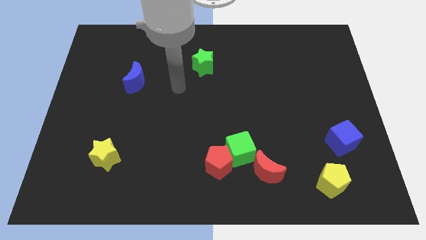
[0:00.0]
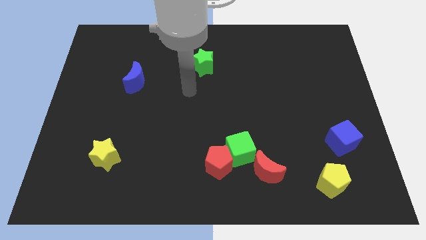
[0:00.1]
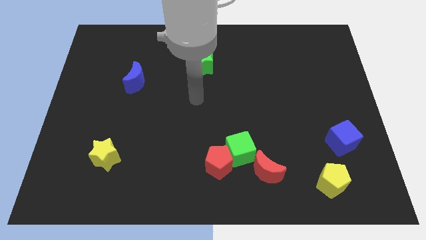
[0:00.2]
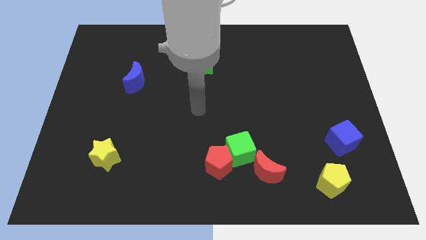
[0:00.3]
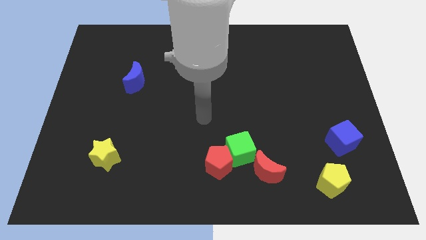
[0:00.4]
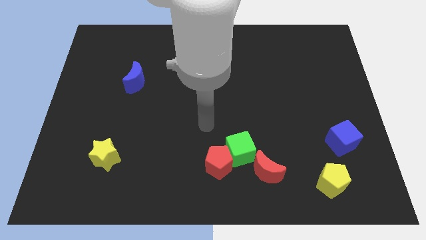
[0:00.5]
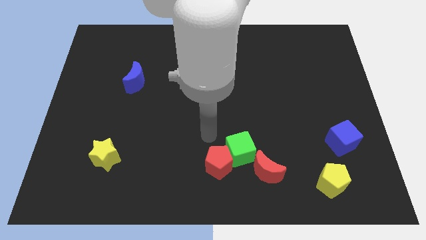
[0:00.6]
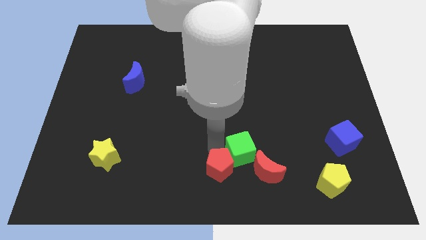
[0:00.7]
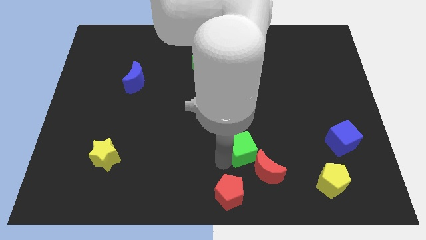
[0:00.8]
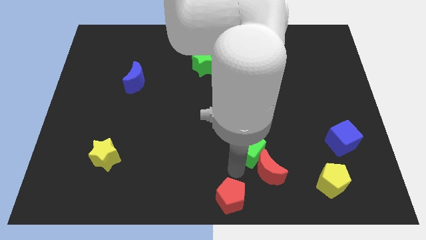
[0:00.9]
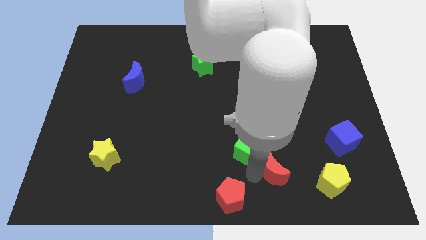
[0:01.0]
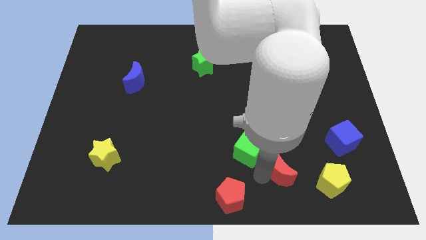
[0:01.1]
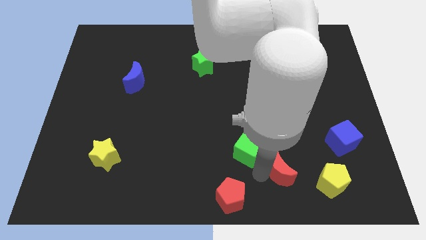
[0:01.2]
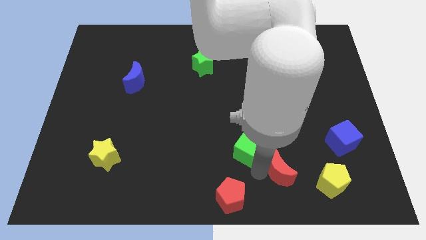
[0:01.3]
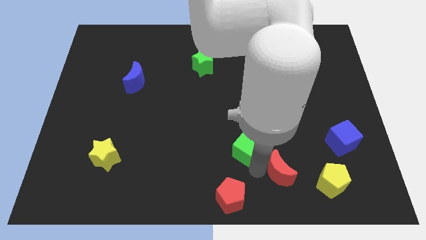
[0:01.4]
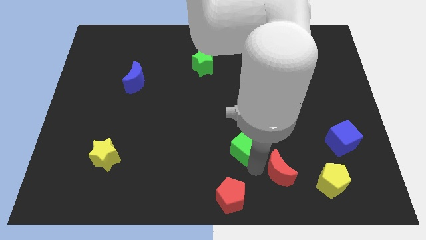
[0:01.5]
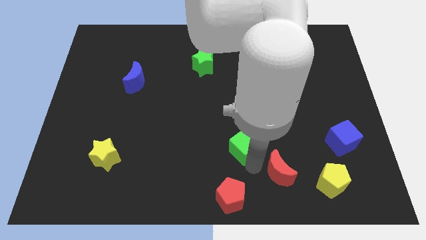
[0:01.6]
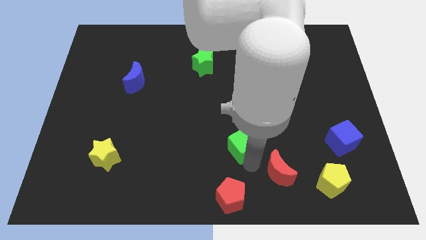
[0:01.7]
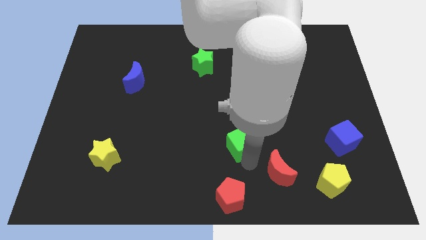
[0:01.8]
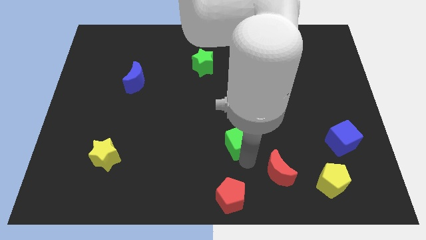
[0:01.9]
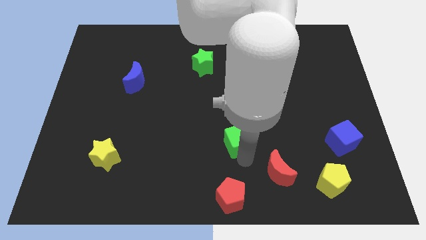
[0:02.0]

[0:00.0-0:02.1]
pull the green cube apart from the red pentagon and red moon

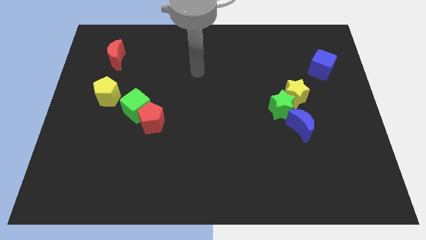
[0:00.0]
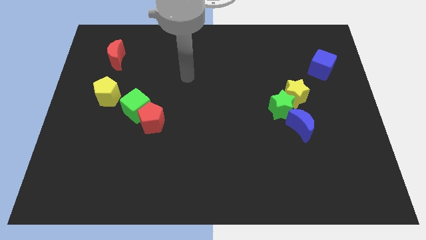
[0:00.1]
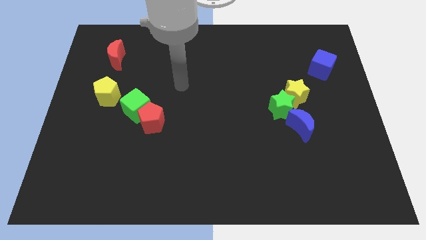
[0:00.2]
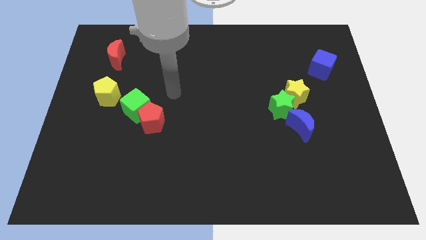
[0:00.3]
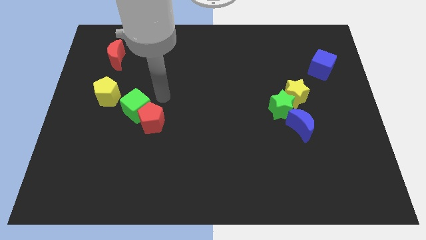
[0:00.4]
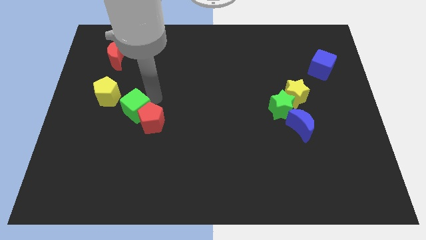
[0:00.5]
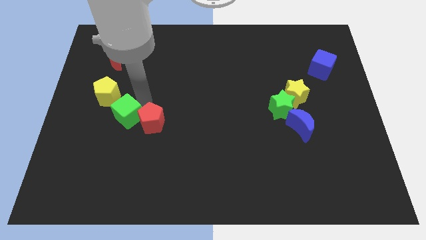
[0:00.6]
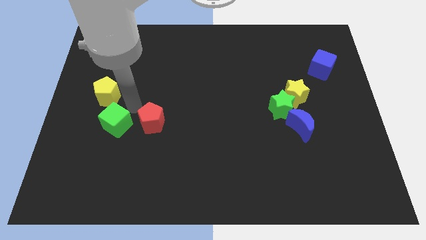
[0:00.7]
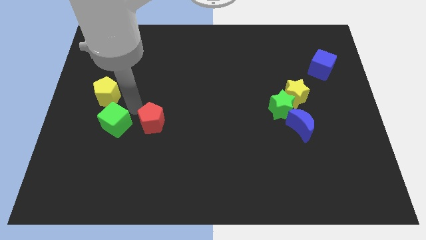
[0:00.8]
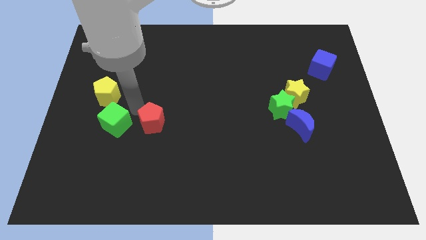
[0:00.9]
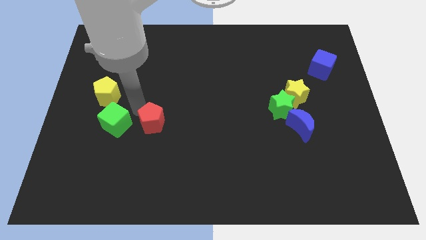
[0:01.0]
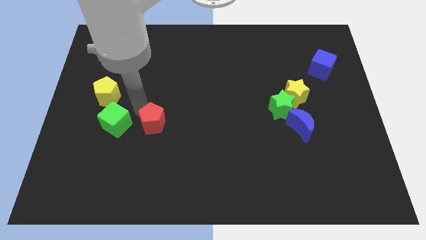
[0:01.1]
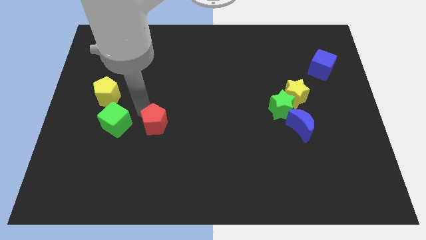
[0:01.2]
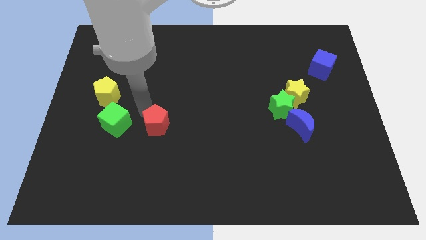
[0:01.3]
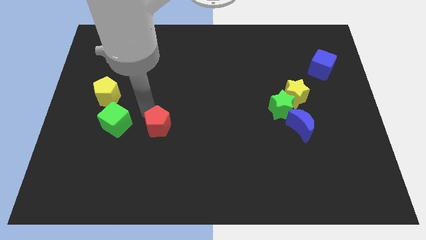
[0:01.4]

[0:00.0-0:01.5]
separate the red pentagon from the green cube

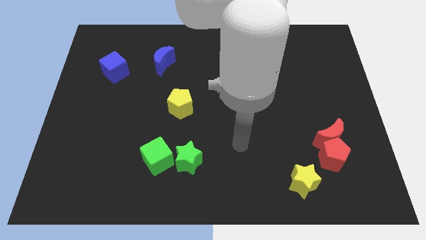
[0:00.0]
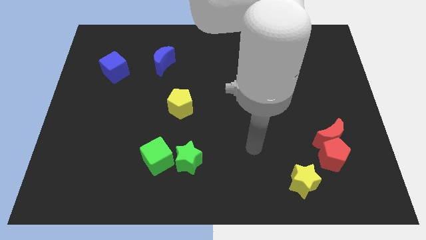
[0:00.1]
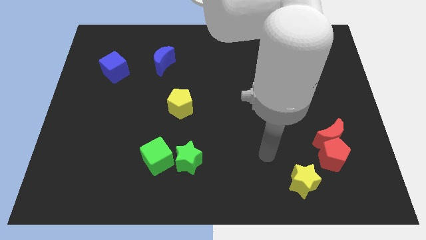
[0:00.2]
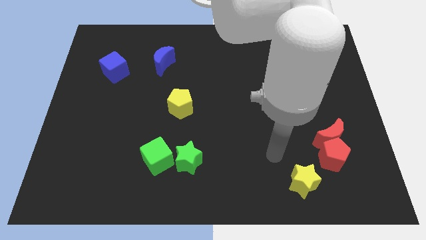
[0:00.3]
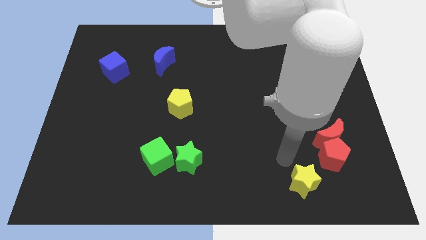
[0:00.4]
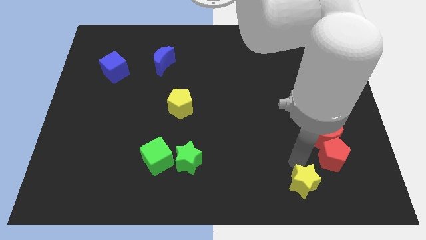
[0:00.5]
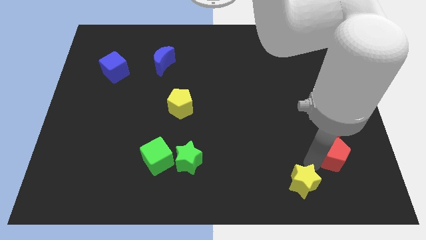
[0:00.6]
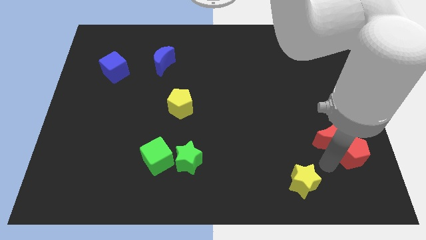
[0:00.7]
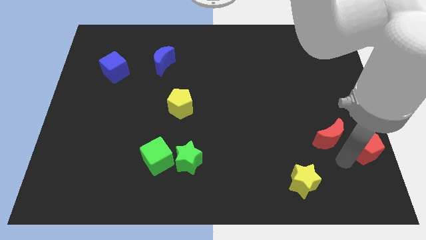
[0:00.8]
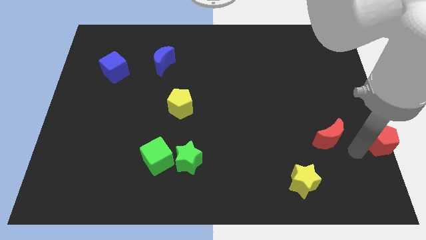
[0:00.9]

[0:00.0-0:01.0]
pull the red moon apart from the red pentagon

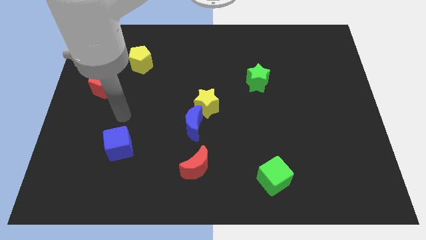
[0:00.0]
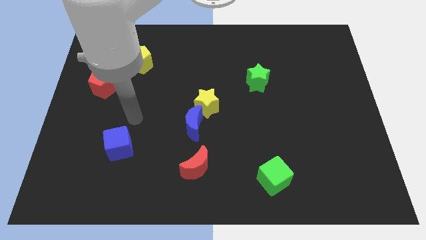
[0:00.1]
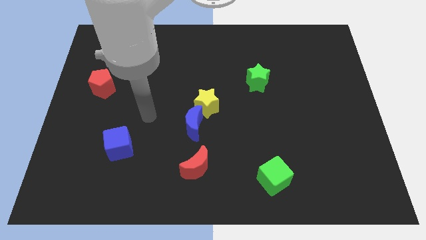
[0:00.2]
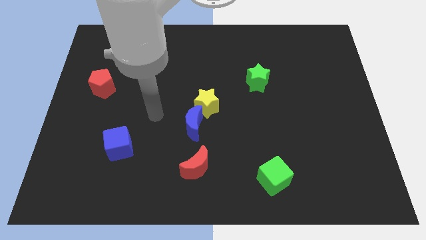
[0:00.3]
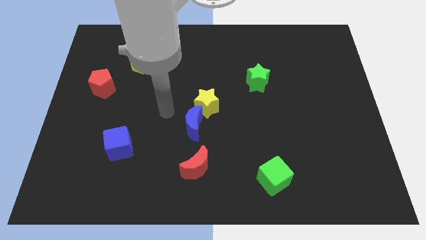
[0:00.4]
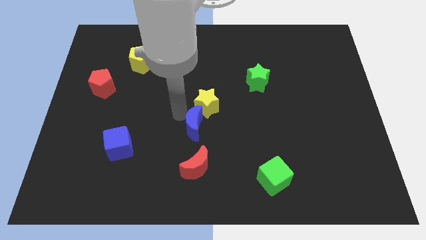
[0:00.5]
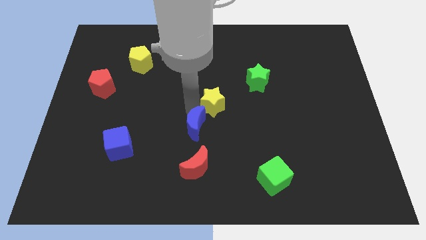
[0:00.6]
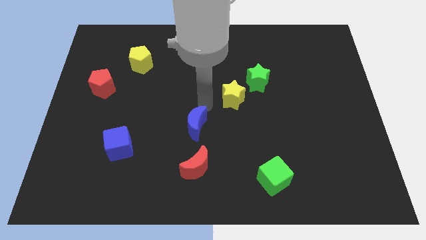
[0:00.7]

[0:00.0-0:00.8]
move the blue moon away from the yellow star

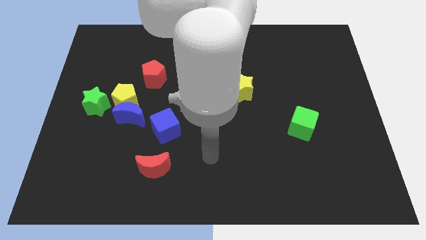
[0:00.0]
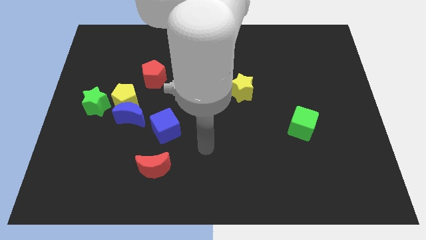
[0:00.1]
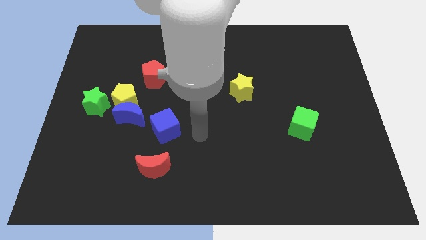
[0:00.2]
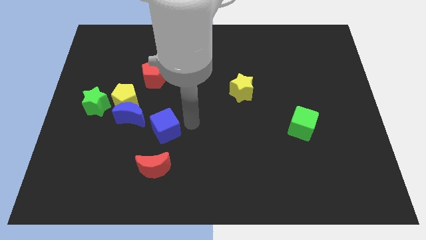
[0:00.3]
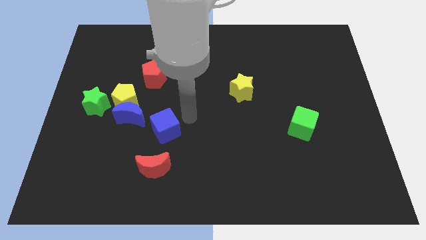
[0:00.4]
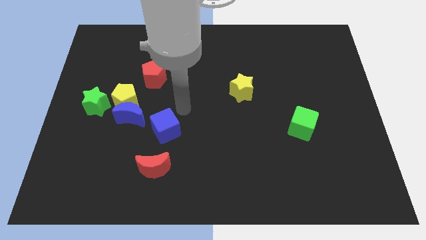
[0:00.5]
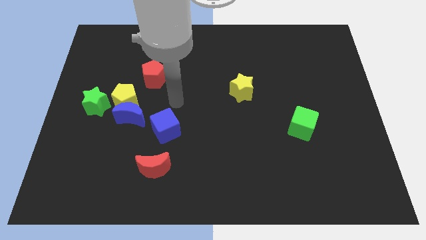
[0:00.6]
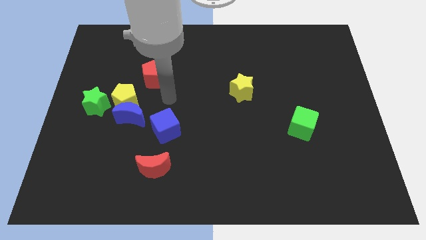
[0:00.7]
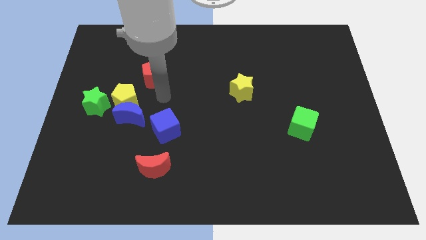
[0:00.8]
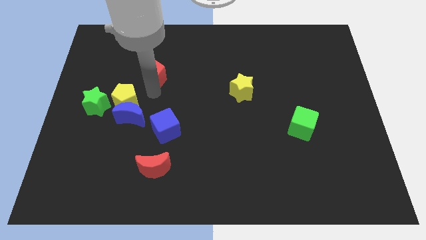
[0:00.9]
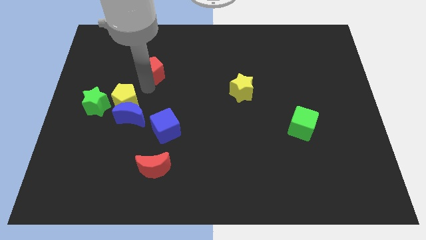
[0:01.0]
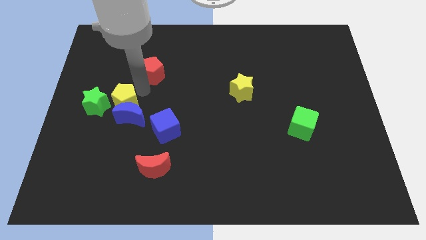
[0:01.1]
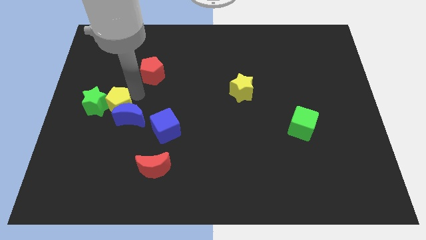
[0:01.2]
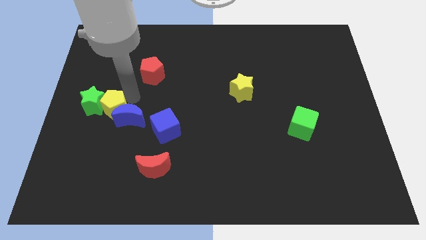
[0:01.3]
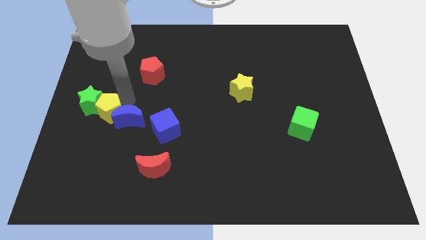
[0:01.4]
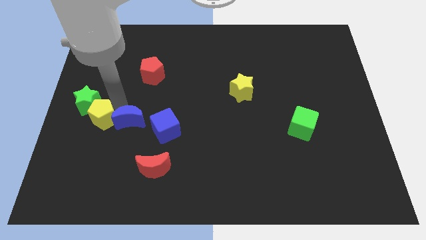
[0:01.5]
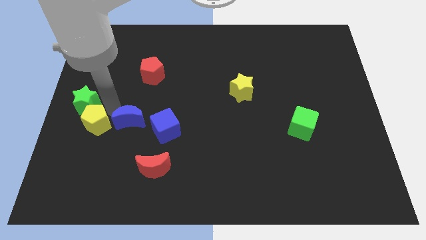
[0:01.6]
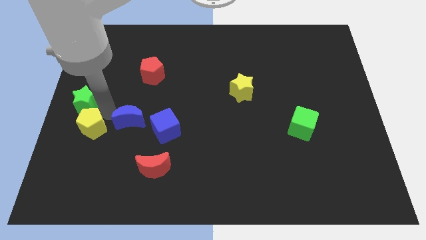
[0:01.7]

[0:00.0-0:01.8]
separate the yellow pentagon from the blue moon, green star, and red pentagon

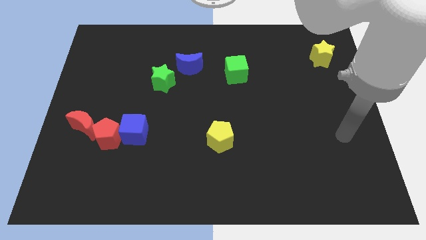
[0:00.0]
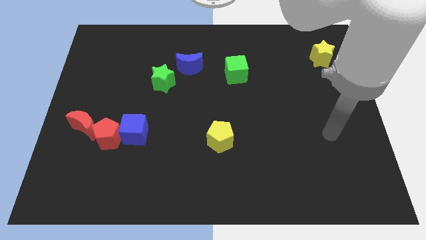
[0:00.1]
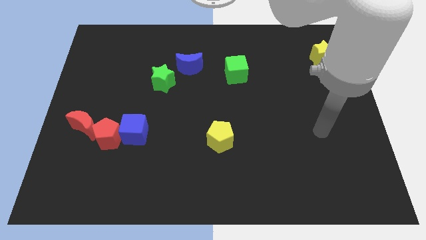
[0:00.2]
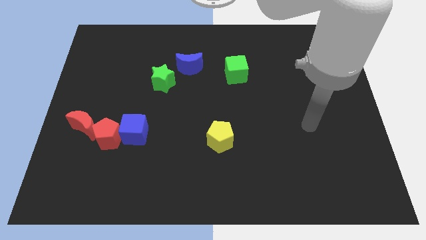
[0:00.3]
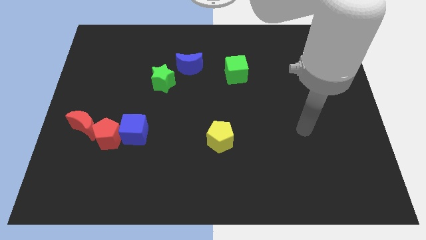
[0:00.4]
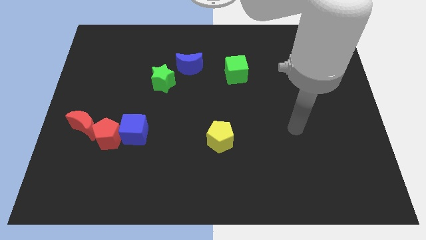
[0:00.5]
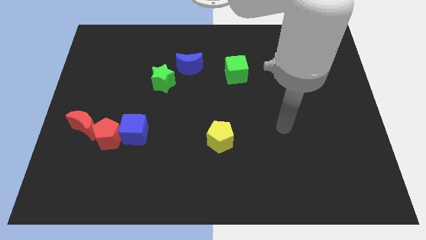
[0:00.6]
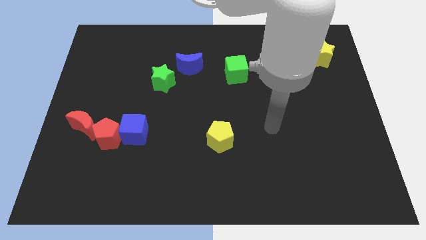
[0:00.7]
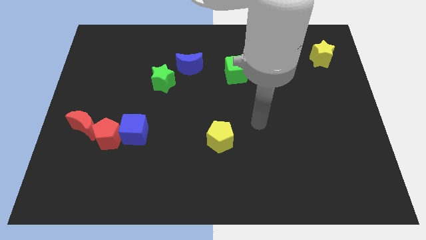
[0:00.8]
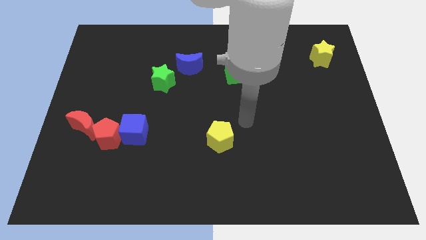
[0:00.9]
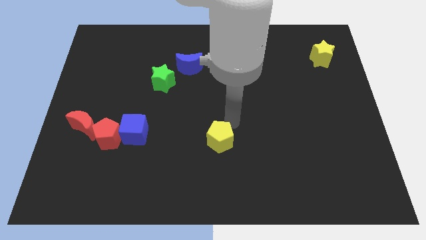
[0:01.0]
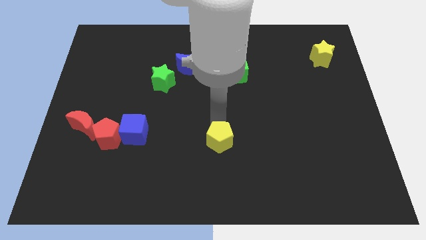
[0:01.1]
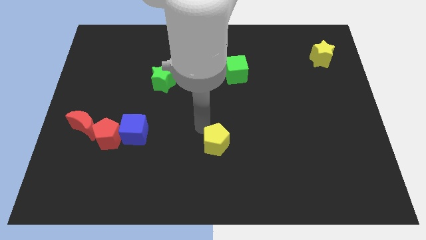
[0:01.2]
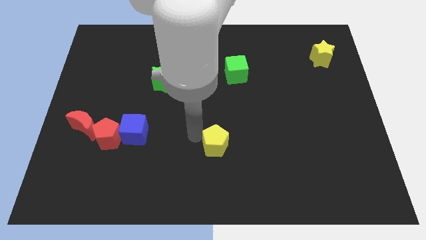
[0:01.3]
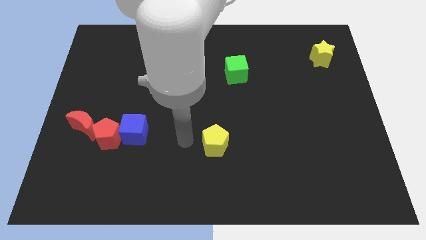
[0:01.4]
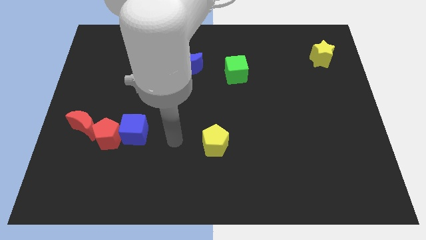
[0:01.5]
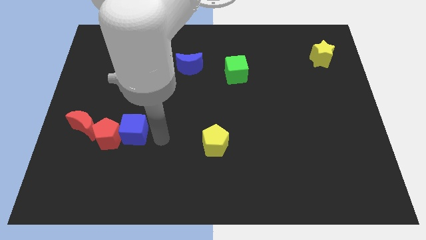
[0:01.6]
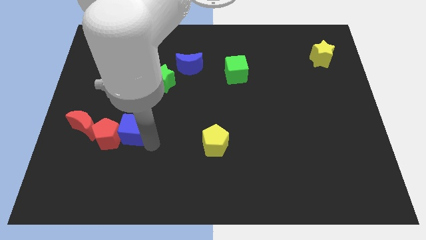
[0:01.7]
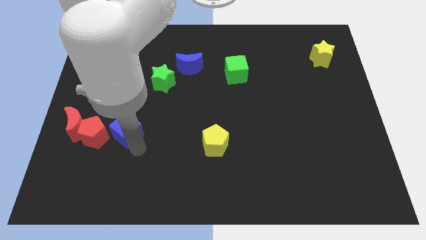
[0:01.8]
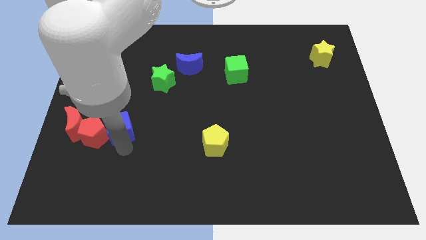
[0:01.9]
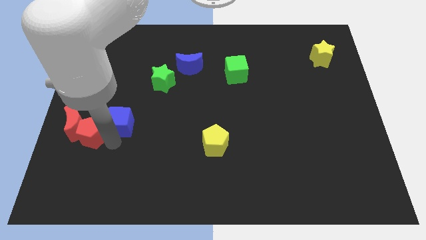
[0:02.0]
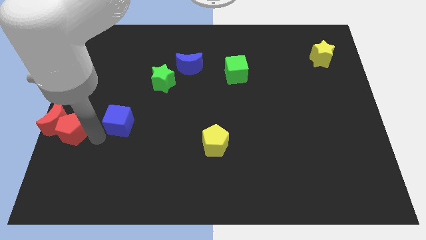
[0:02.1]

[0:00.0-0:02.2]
pull the blue cube apart from the red pentagon
